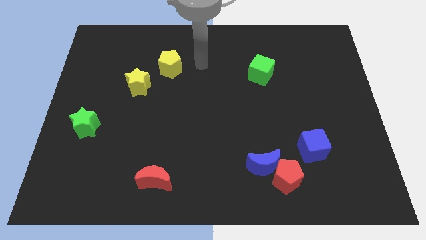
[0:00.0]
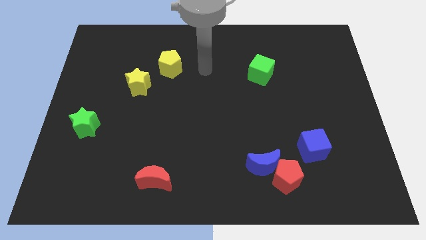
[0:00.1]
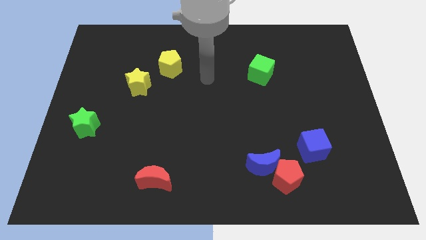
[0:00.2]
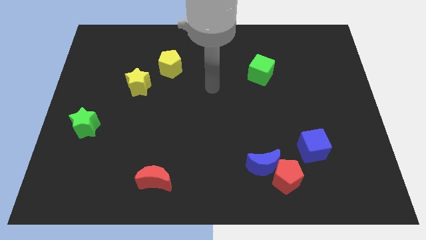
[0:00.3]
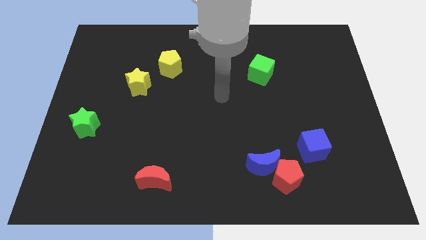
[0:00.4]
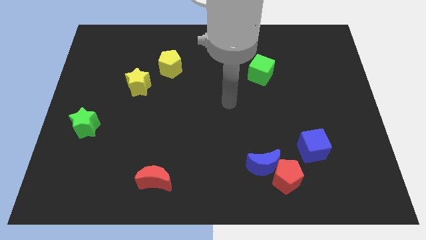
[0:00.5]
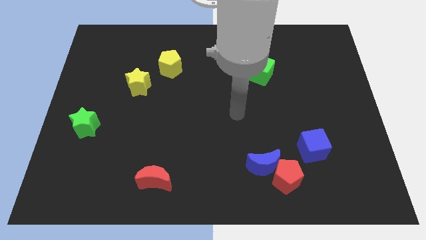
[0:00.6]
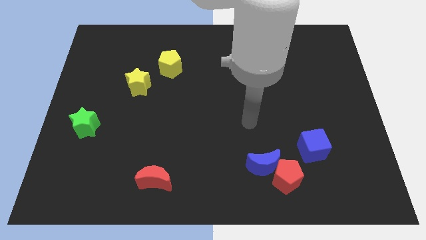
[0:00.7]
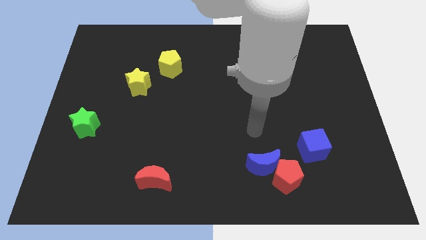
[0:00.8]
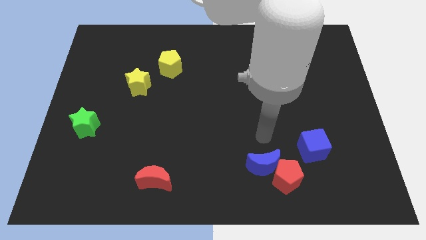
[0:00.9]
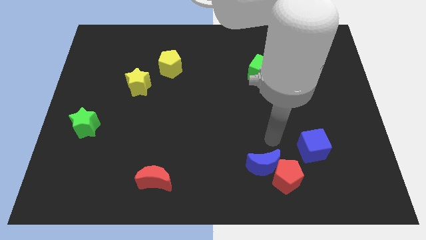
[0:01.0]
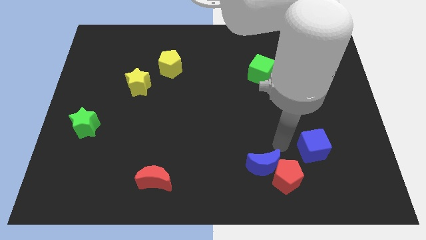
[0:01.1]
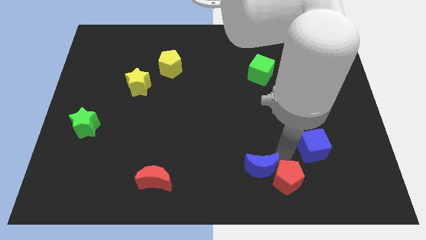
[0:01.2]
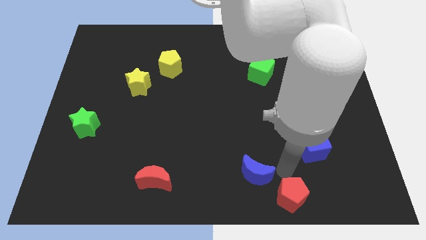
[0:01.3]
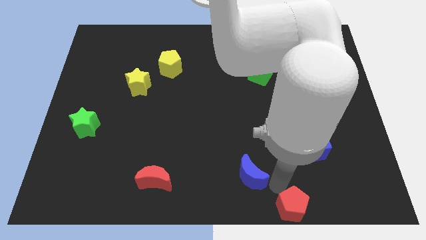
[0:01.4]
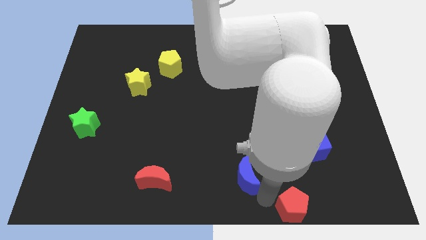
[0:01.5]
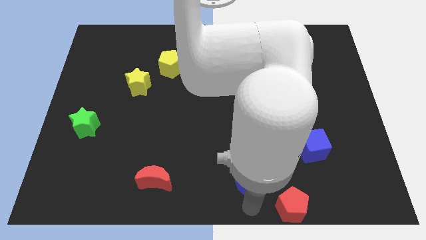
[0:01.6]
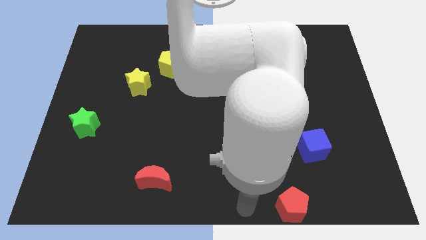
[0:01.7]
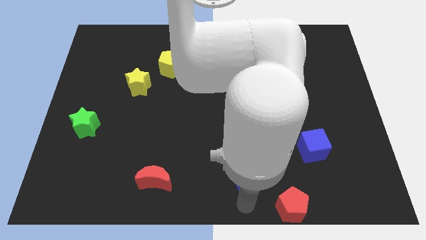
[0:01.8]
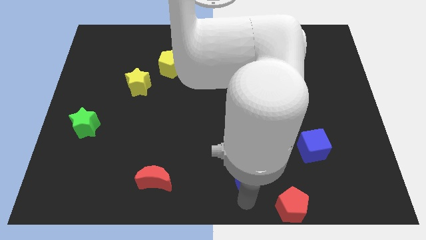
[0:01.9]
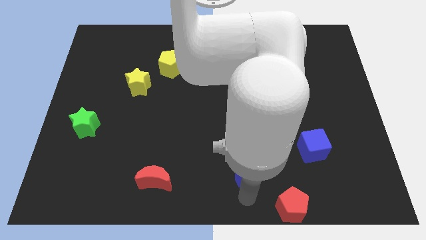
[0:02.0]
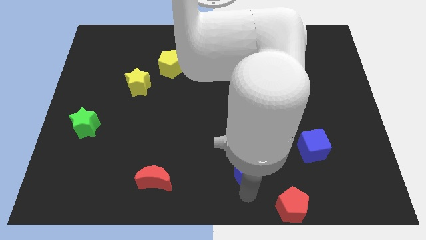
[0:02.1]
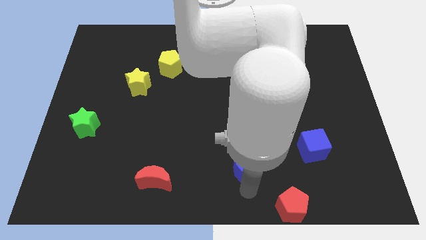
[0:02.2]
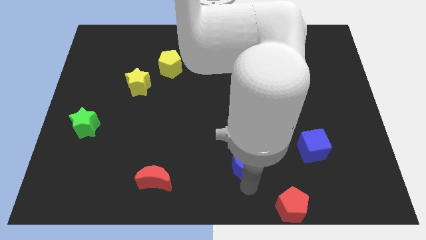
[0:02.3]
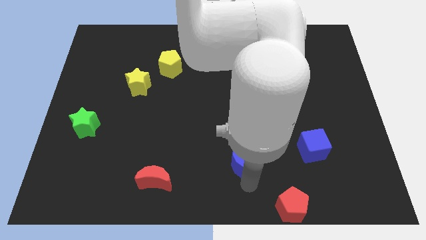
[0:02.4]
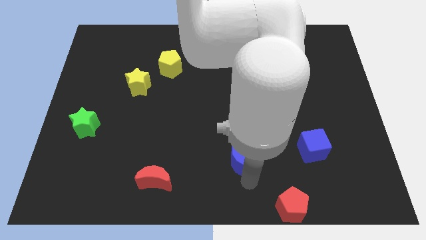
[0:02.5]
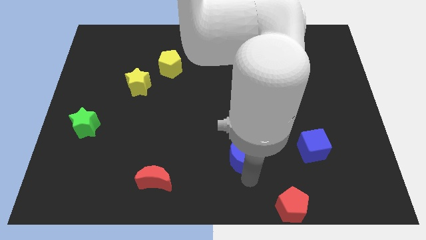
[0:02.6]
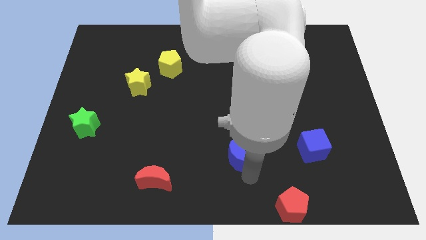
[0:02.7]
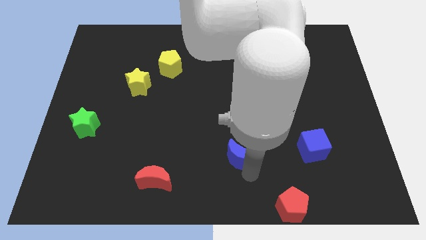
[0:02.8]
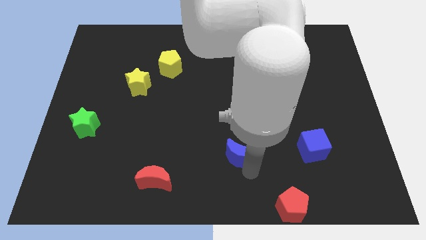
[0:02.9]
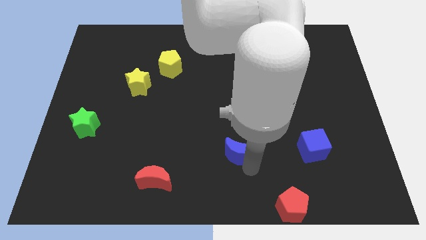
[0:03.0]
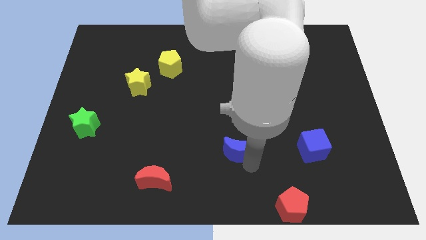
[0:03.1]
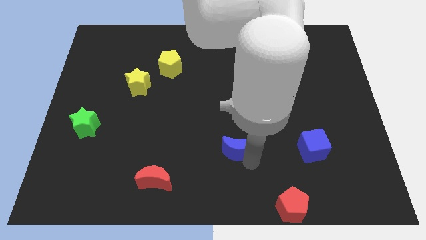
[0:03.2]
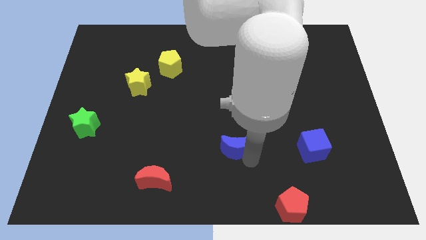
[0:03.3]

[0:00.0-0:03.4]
move the blue moon upwards and left a little

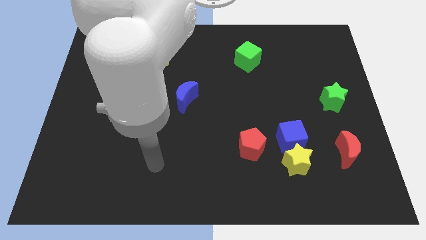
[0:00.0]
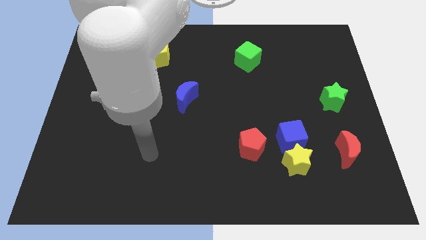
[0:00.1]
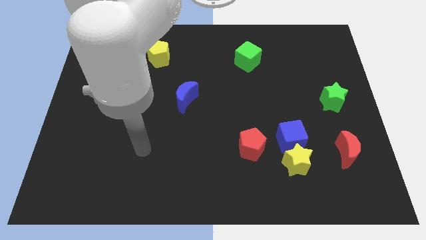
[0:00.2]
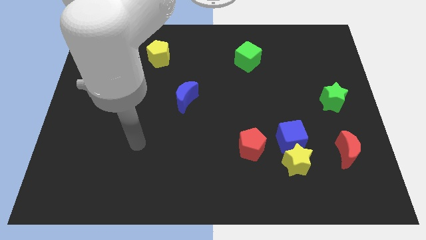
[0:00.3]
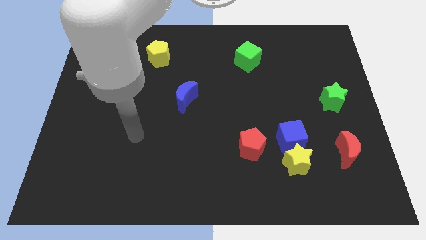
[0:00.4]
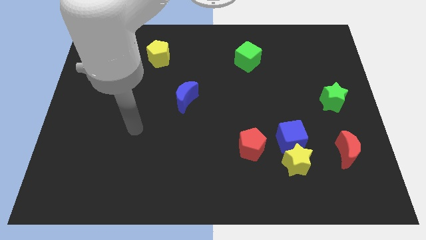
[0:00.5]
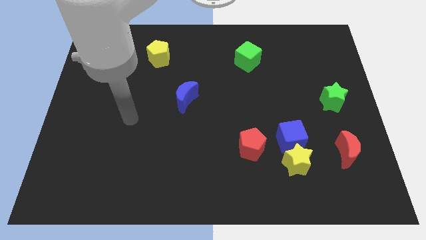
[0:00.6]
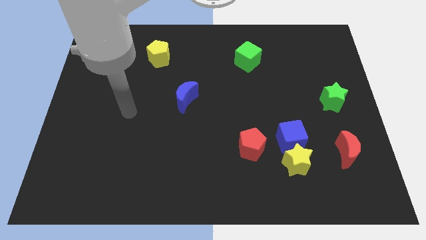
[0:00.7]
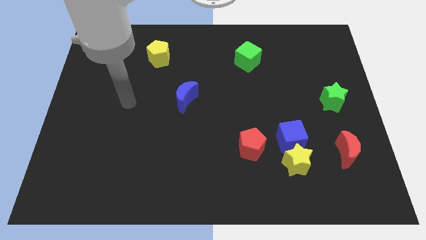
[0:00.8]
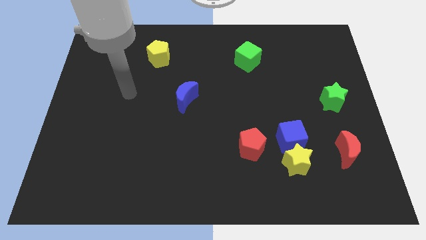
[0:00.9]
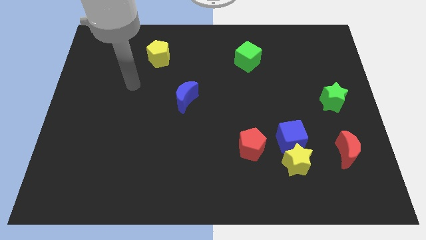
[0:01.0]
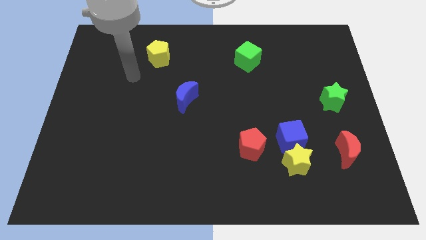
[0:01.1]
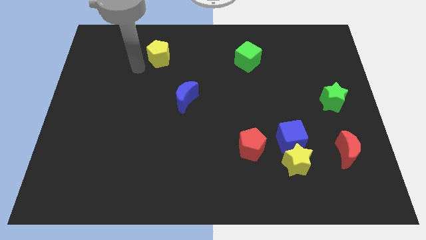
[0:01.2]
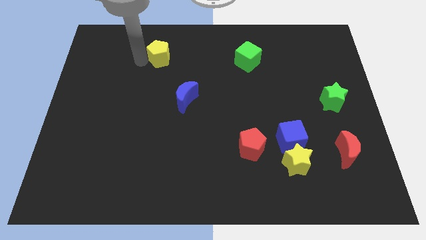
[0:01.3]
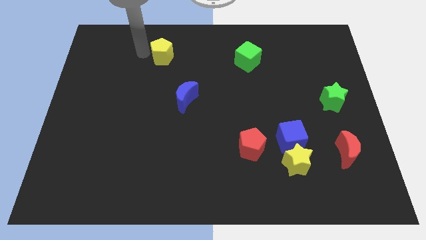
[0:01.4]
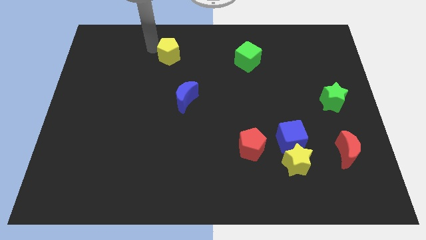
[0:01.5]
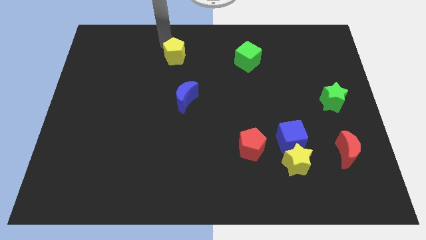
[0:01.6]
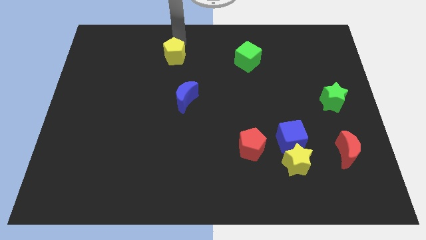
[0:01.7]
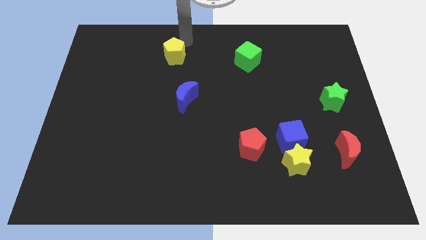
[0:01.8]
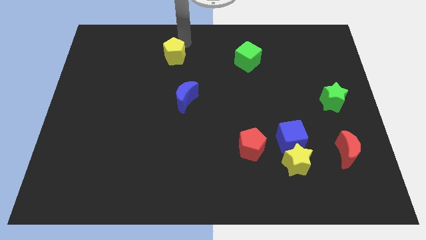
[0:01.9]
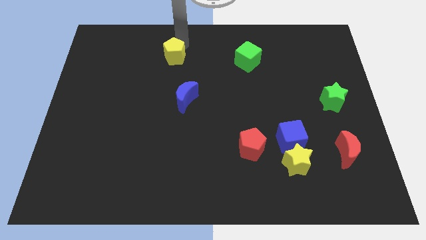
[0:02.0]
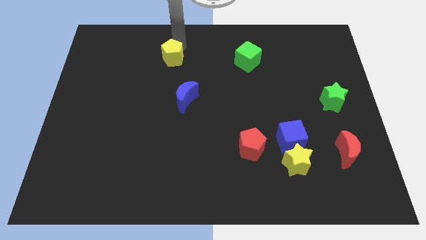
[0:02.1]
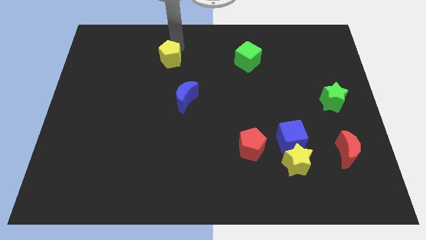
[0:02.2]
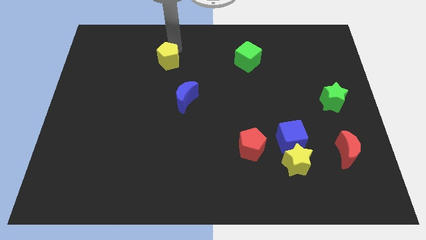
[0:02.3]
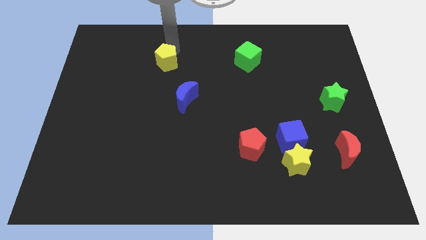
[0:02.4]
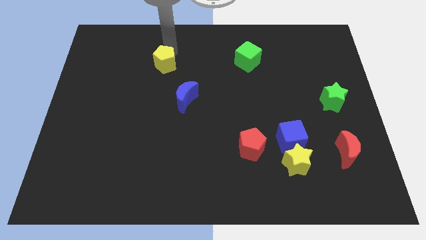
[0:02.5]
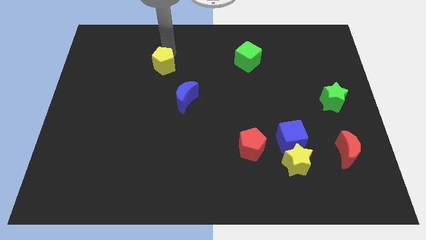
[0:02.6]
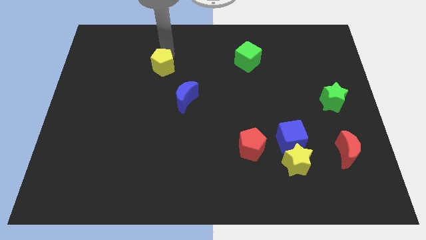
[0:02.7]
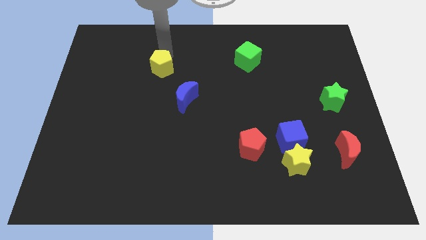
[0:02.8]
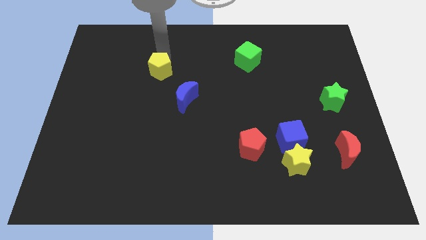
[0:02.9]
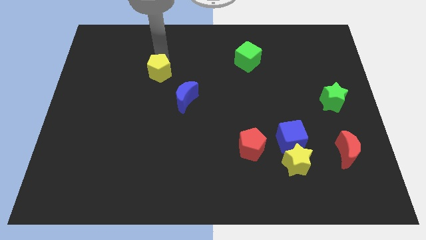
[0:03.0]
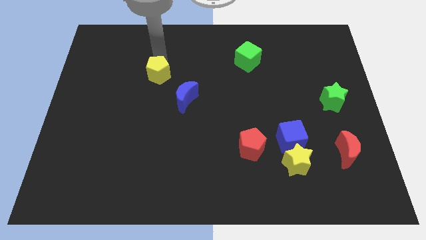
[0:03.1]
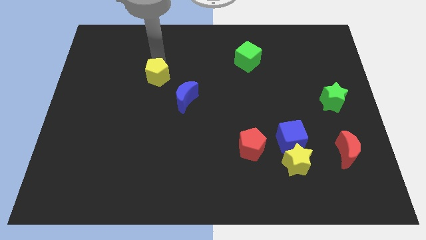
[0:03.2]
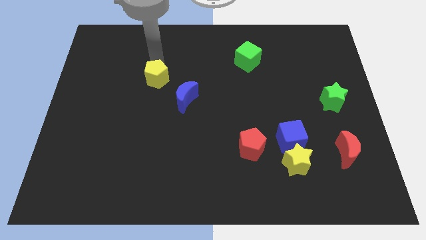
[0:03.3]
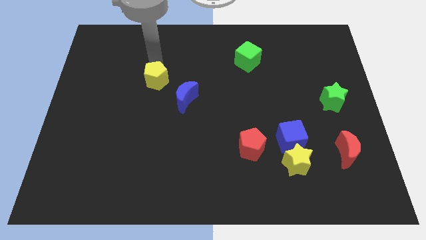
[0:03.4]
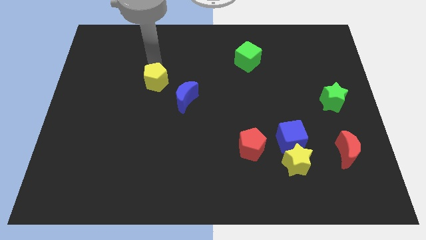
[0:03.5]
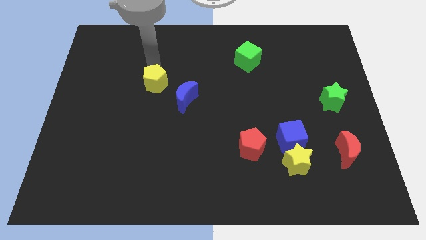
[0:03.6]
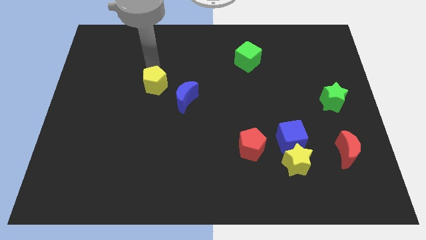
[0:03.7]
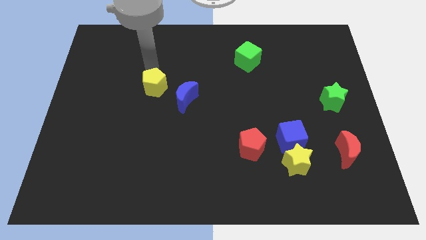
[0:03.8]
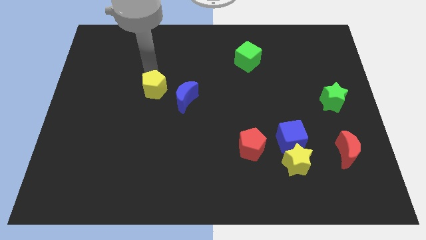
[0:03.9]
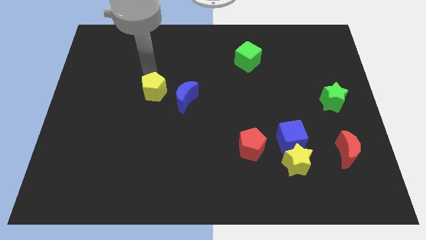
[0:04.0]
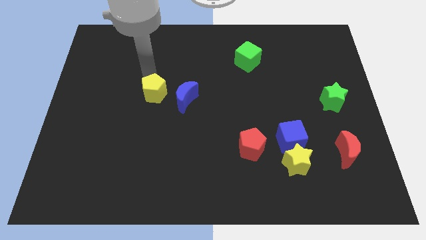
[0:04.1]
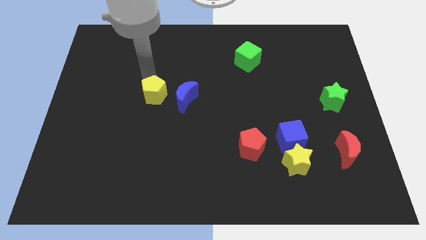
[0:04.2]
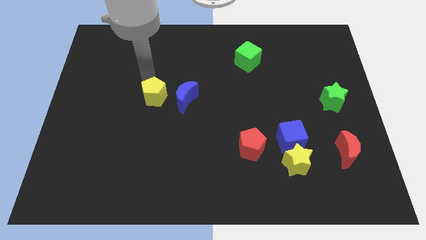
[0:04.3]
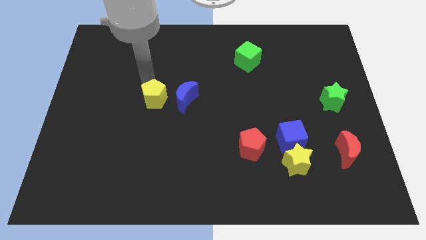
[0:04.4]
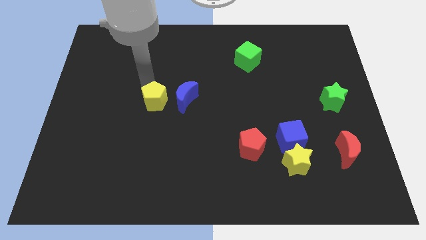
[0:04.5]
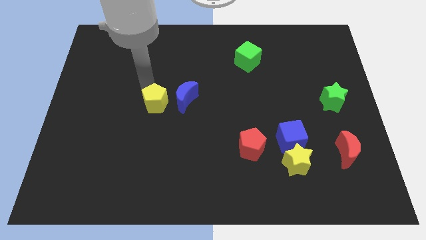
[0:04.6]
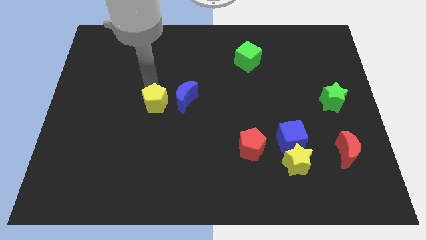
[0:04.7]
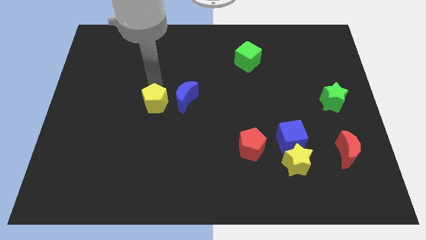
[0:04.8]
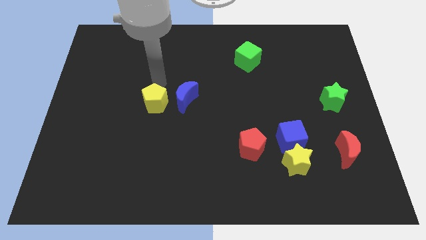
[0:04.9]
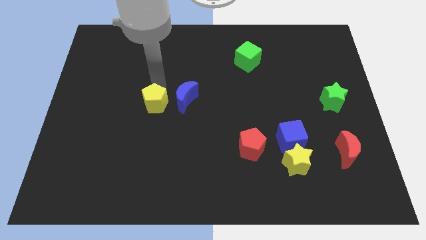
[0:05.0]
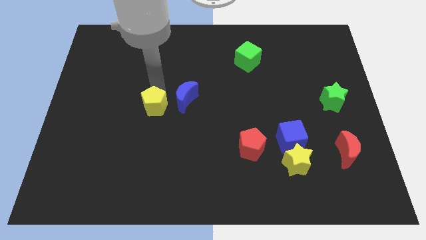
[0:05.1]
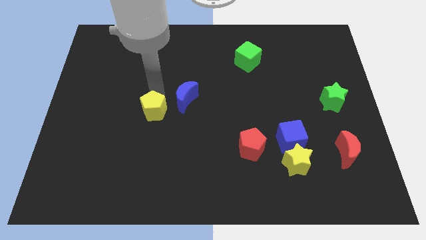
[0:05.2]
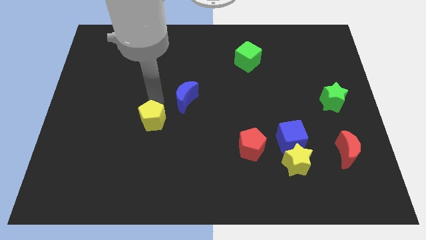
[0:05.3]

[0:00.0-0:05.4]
push the yellow pentagon downwards
